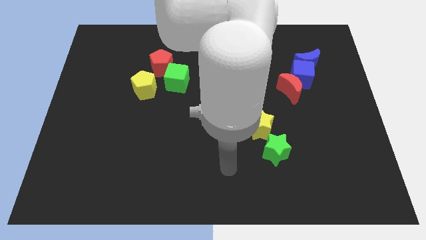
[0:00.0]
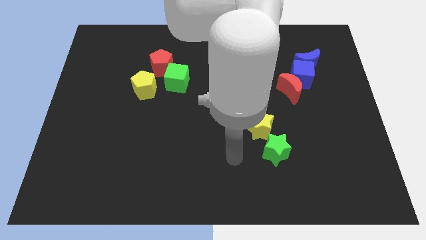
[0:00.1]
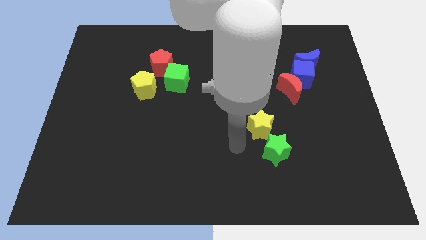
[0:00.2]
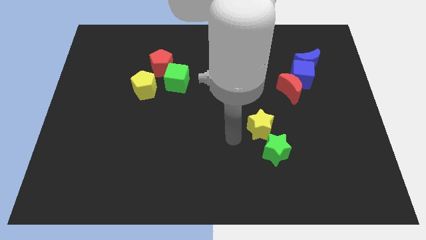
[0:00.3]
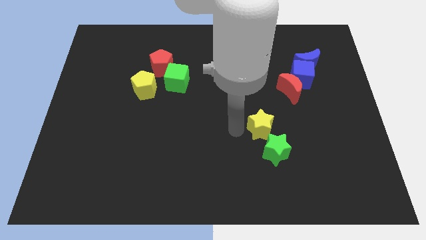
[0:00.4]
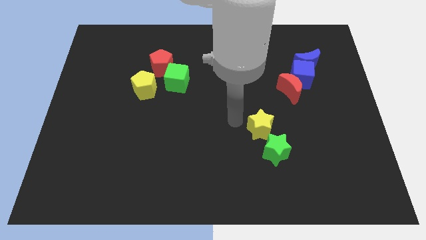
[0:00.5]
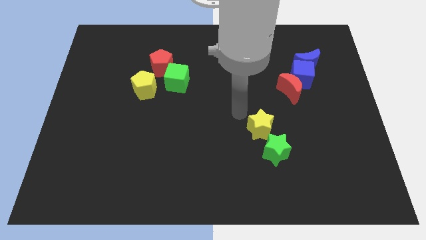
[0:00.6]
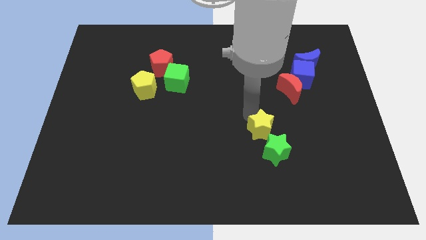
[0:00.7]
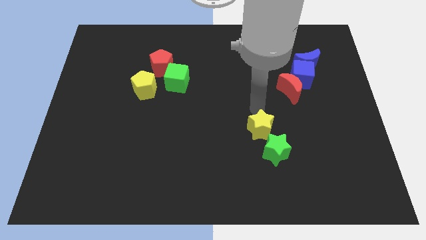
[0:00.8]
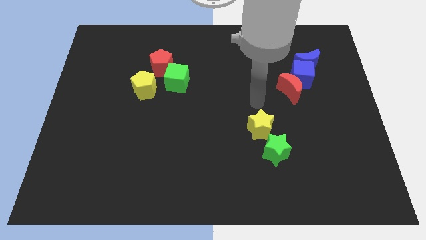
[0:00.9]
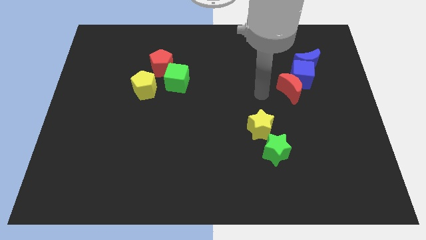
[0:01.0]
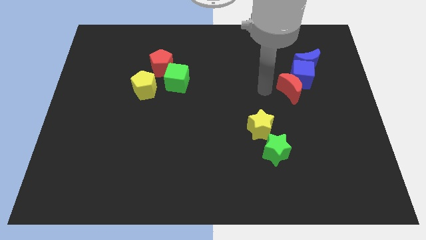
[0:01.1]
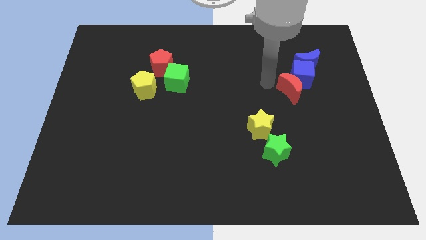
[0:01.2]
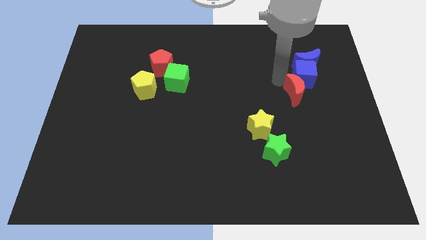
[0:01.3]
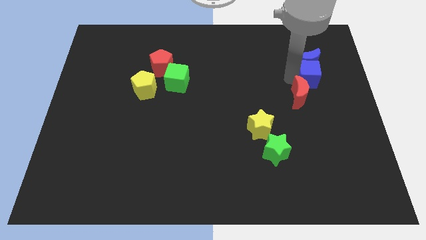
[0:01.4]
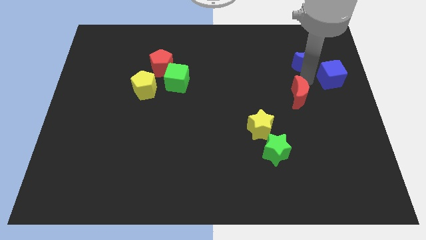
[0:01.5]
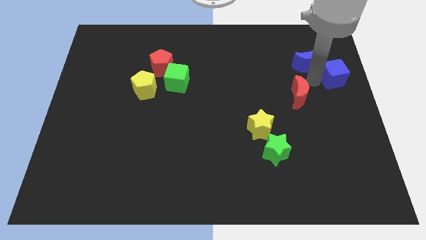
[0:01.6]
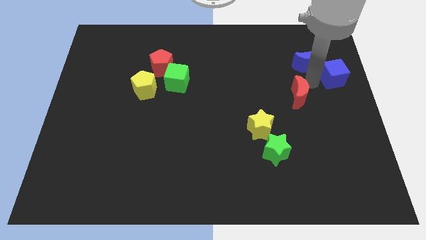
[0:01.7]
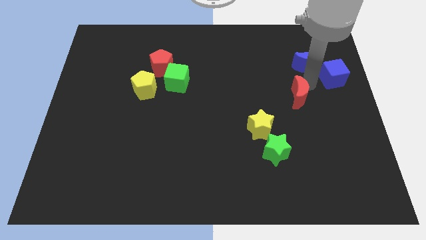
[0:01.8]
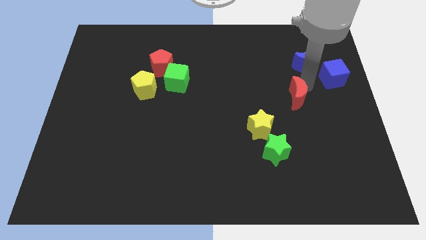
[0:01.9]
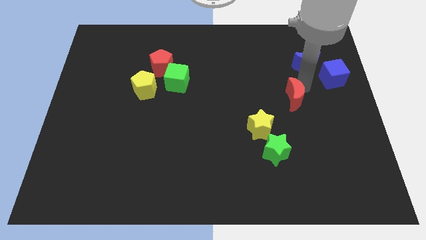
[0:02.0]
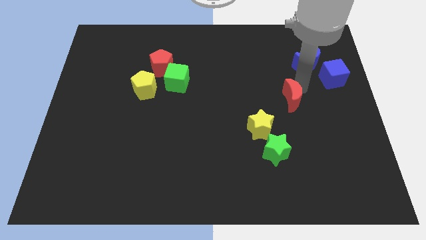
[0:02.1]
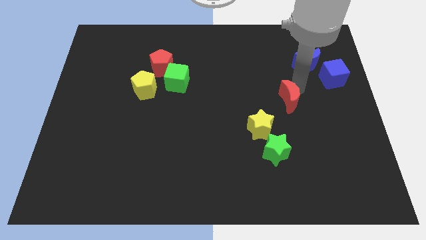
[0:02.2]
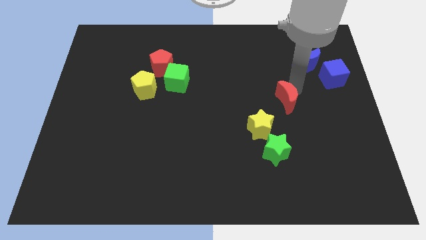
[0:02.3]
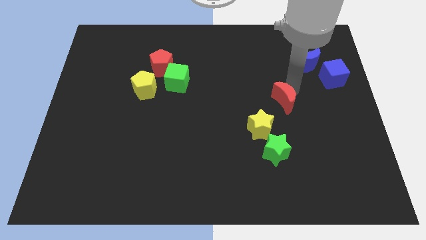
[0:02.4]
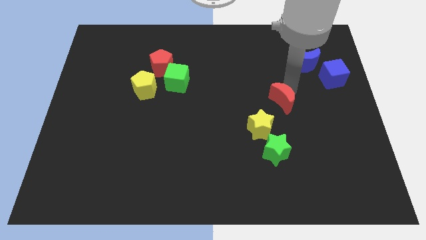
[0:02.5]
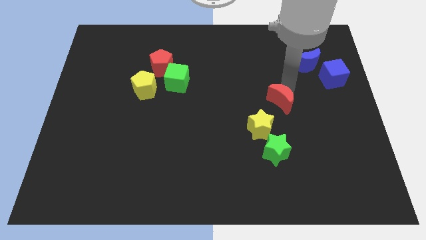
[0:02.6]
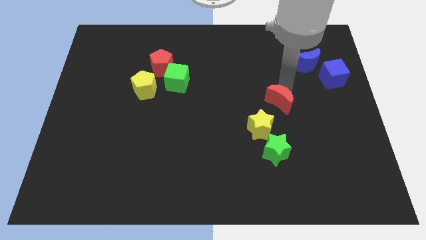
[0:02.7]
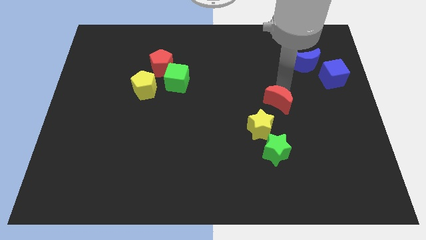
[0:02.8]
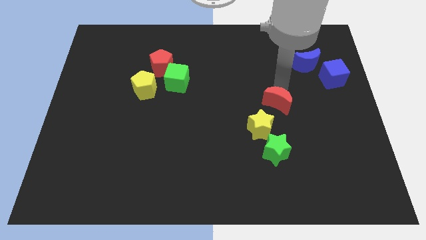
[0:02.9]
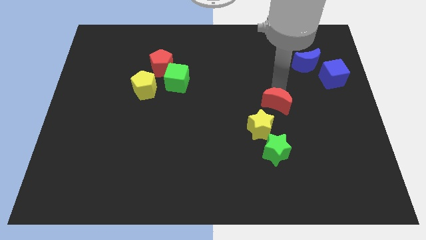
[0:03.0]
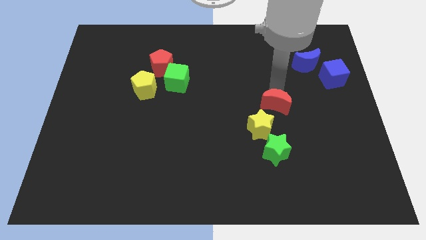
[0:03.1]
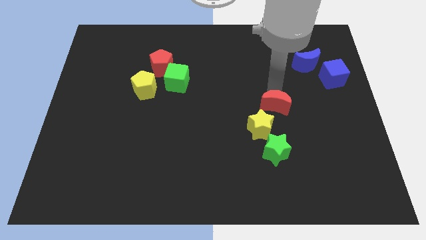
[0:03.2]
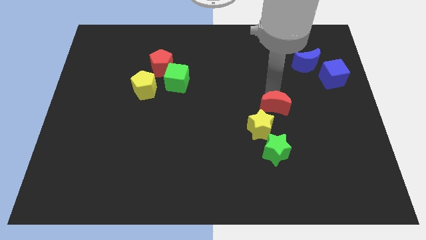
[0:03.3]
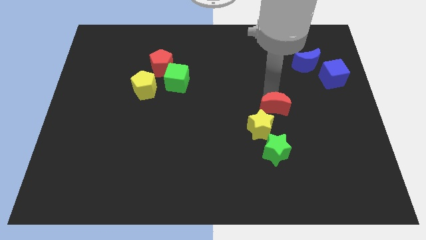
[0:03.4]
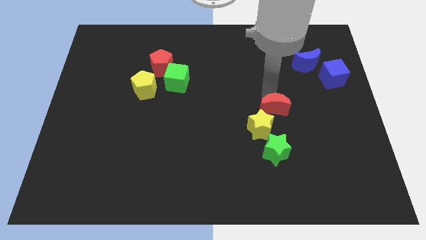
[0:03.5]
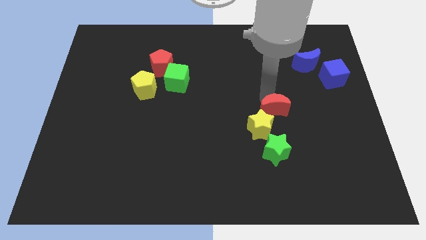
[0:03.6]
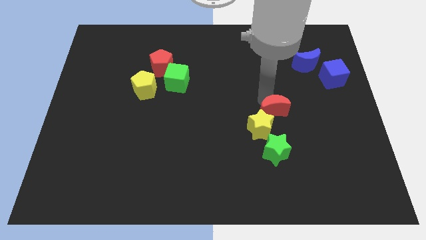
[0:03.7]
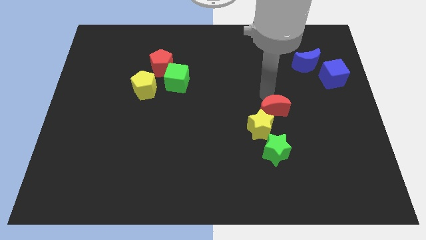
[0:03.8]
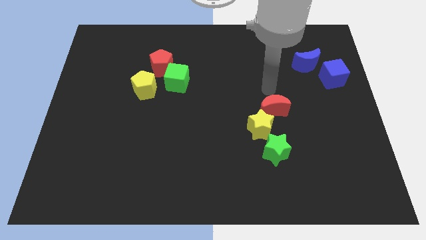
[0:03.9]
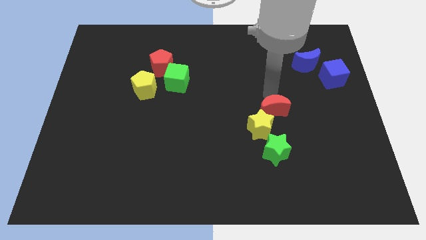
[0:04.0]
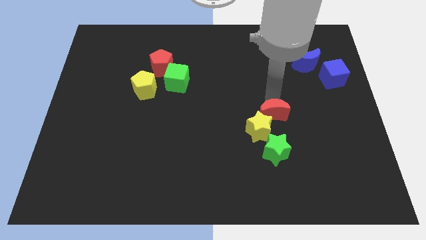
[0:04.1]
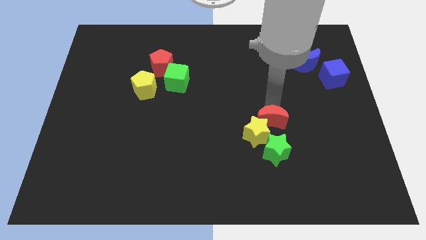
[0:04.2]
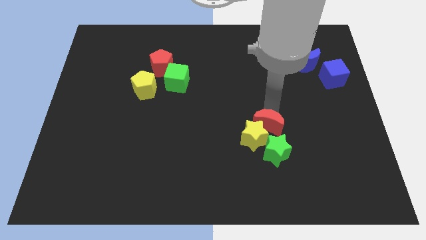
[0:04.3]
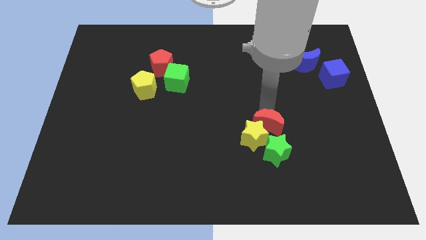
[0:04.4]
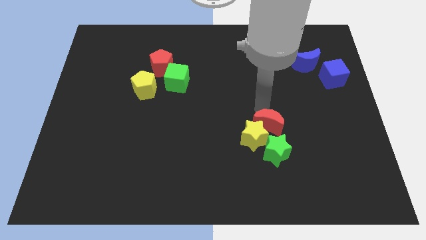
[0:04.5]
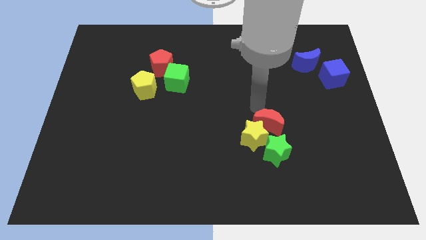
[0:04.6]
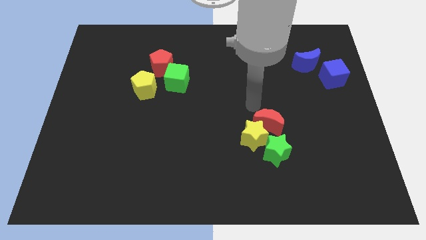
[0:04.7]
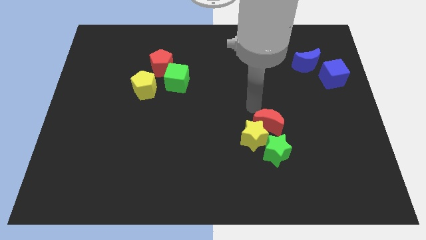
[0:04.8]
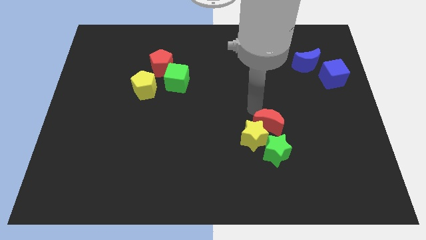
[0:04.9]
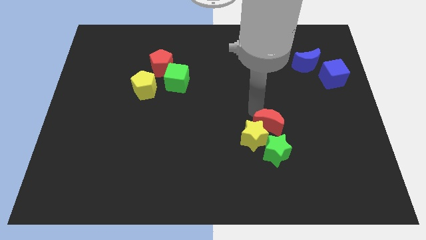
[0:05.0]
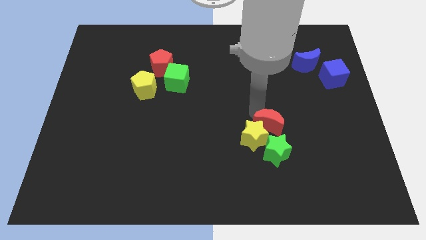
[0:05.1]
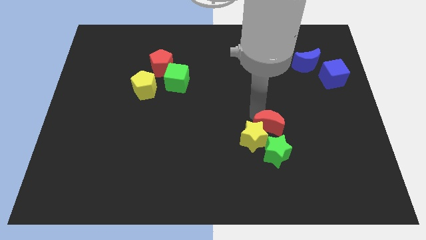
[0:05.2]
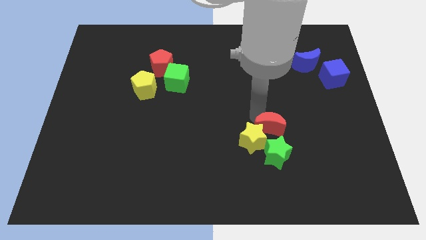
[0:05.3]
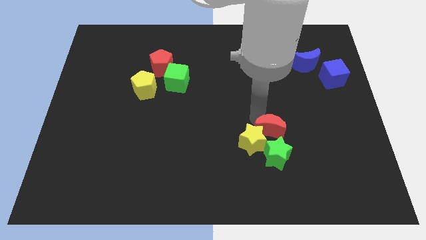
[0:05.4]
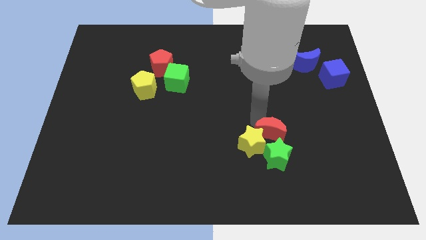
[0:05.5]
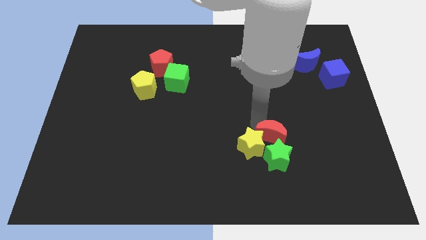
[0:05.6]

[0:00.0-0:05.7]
push the red moon next to the green star

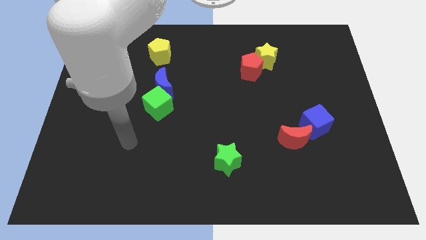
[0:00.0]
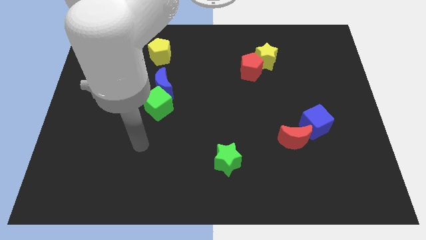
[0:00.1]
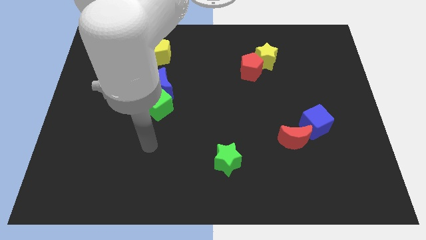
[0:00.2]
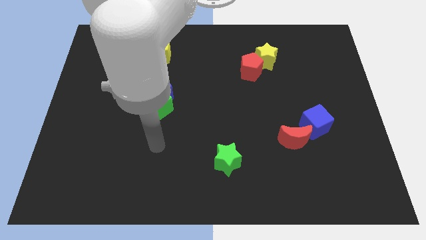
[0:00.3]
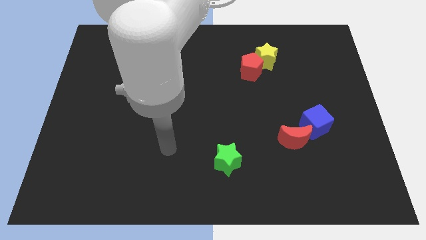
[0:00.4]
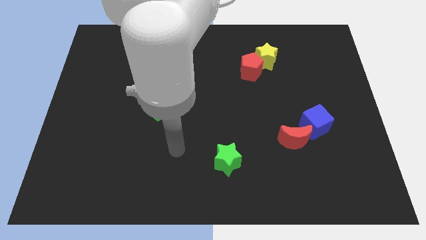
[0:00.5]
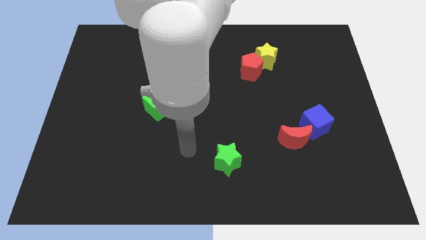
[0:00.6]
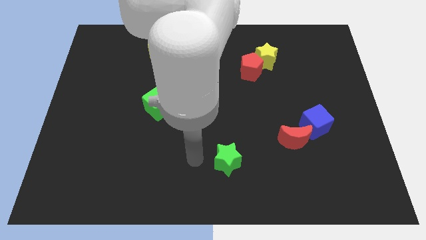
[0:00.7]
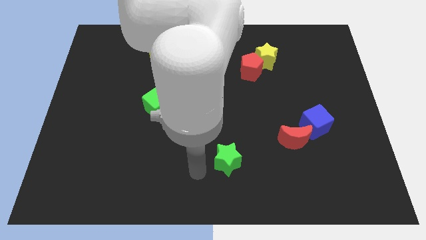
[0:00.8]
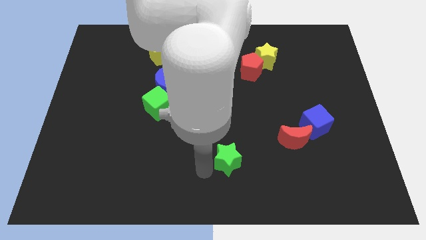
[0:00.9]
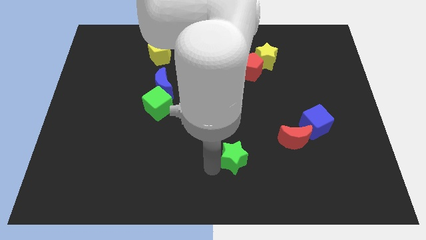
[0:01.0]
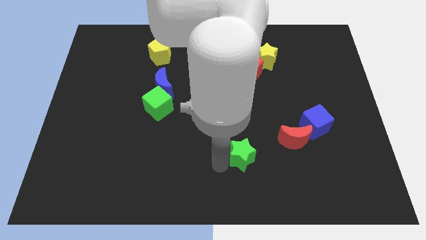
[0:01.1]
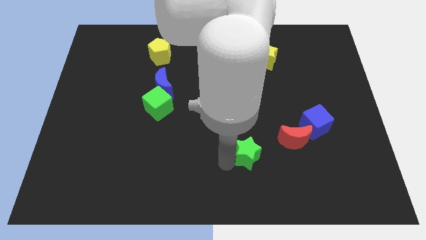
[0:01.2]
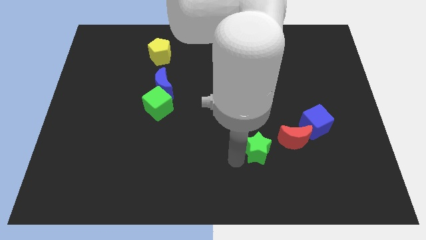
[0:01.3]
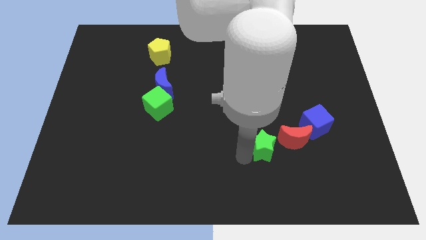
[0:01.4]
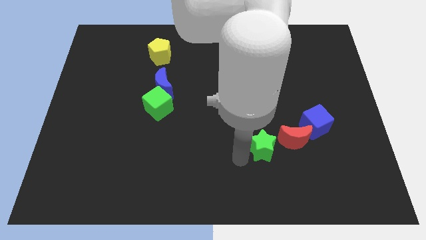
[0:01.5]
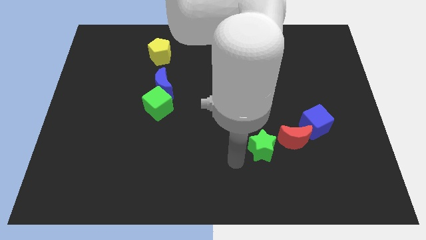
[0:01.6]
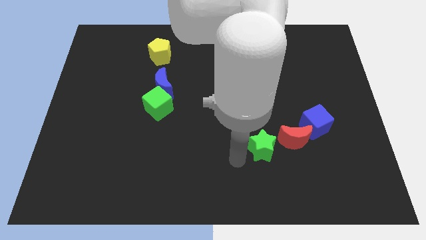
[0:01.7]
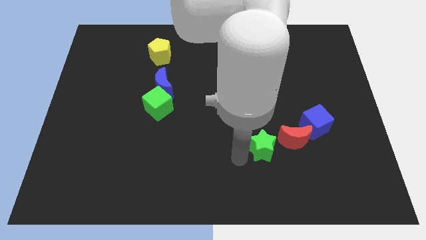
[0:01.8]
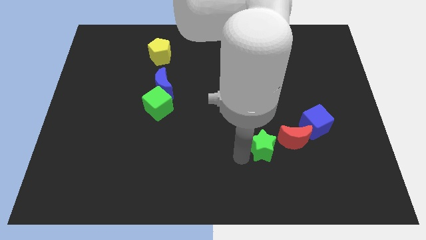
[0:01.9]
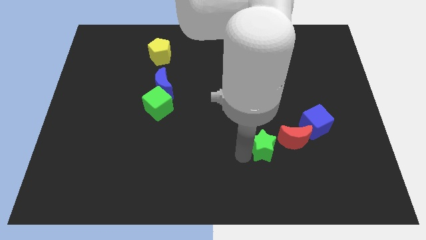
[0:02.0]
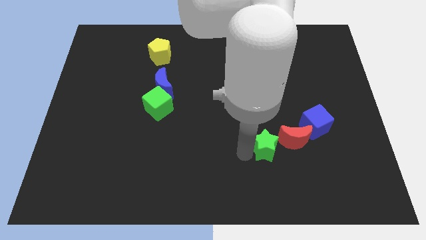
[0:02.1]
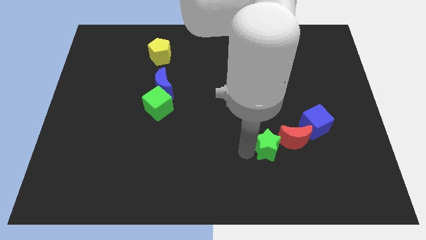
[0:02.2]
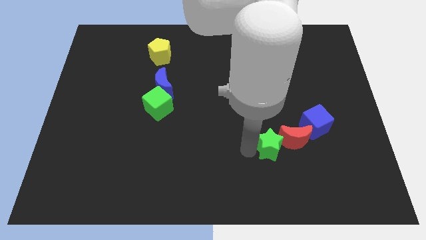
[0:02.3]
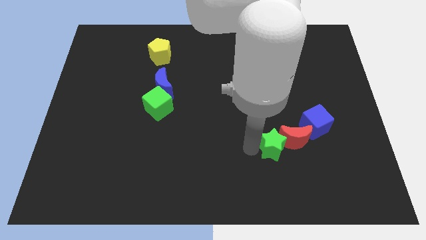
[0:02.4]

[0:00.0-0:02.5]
push the green star to the red moon
